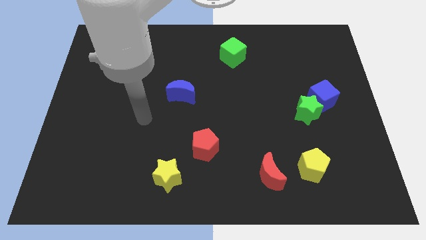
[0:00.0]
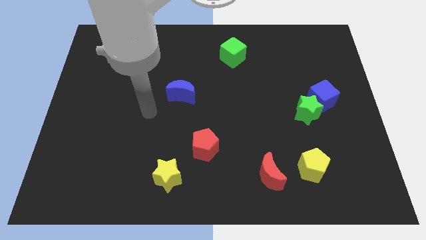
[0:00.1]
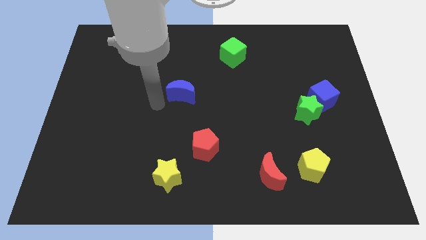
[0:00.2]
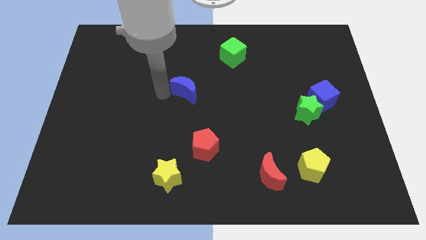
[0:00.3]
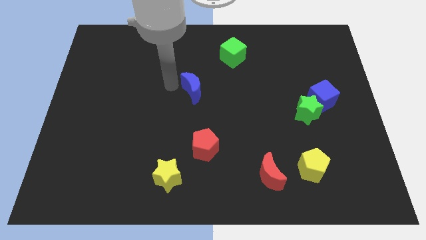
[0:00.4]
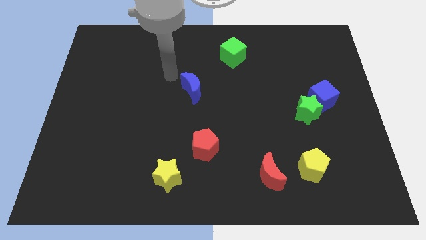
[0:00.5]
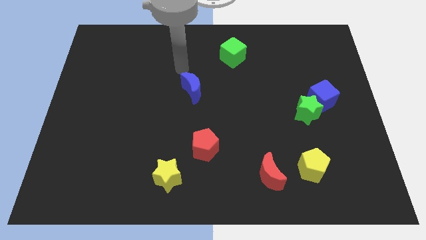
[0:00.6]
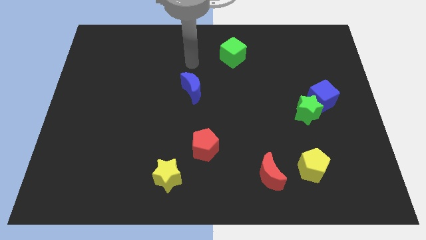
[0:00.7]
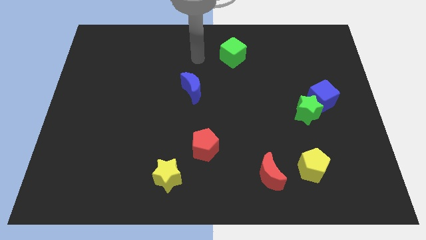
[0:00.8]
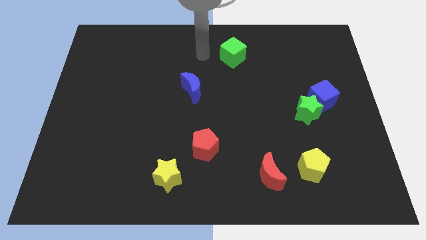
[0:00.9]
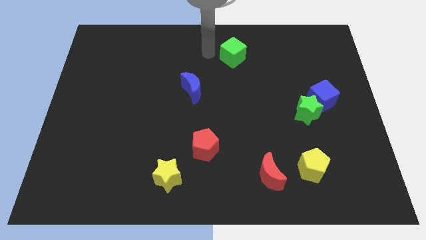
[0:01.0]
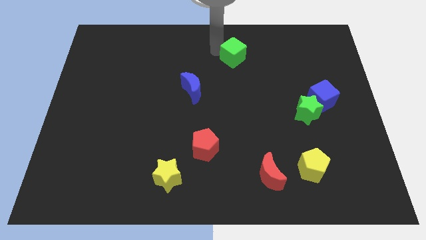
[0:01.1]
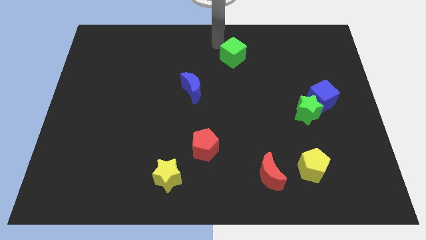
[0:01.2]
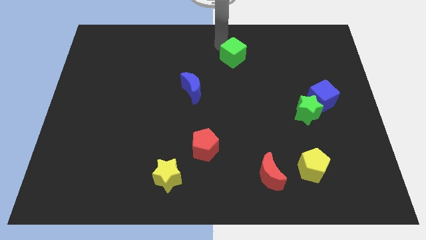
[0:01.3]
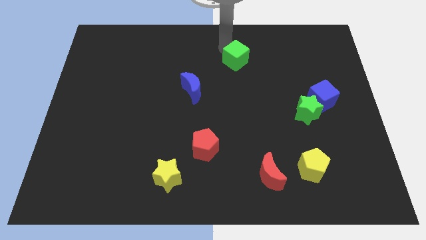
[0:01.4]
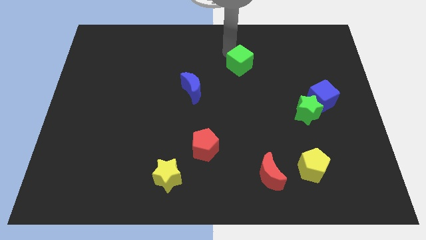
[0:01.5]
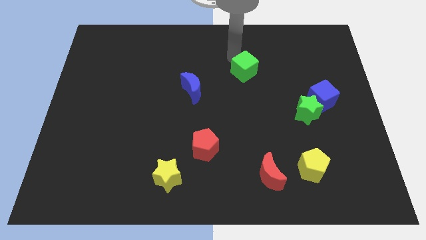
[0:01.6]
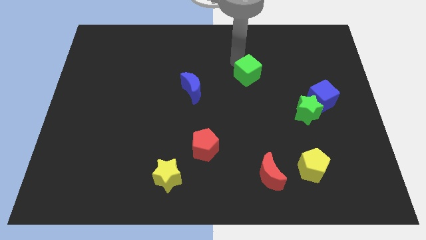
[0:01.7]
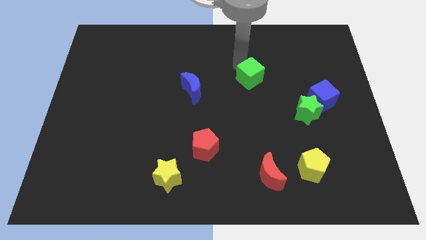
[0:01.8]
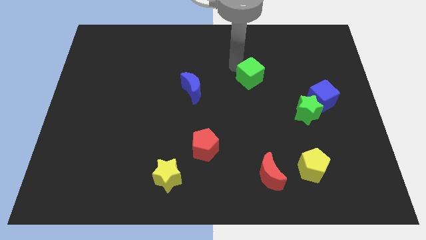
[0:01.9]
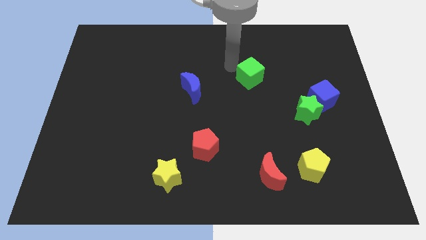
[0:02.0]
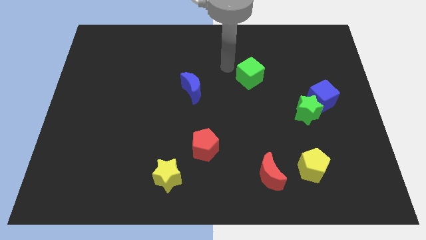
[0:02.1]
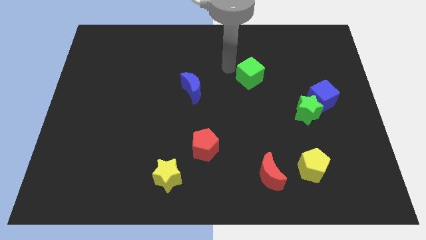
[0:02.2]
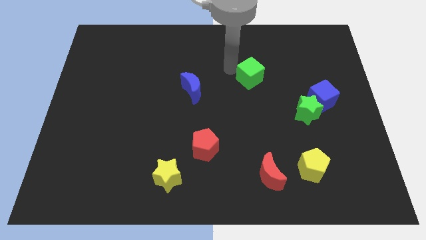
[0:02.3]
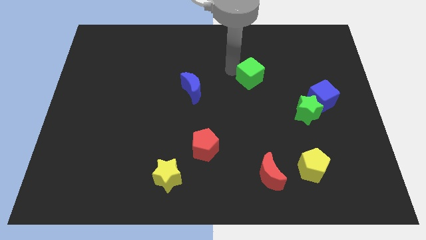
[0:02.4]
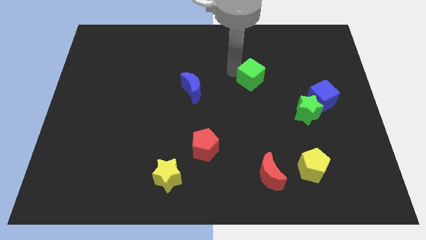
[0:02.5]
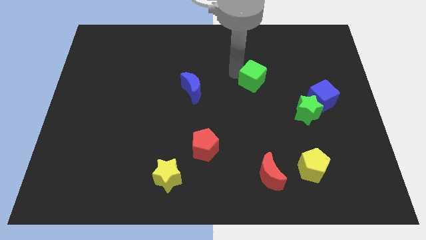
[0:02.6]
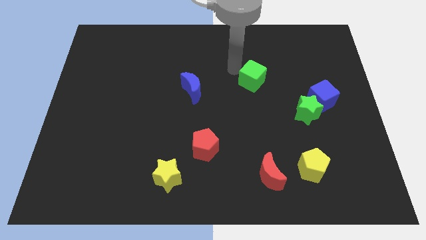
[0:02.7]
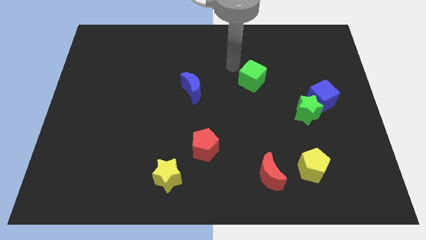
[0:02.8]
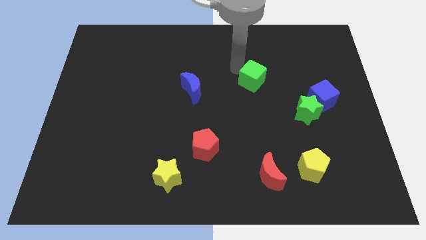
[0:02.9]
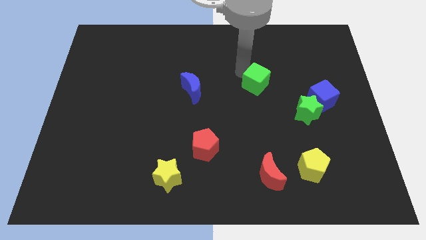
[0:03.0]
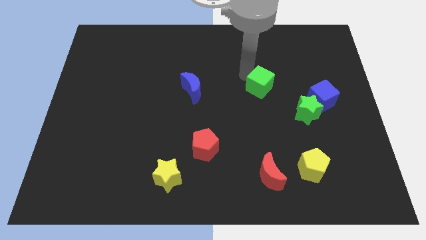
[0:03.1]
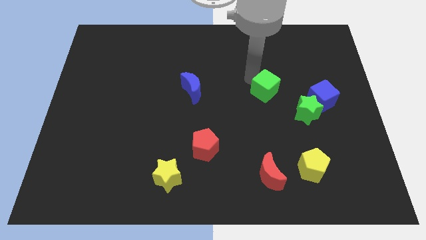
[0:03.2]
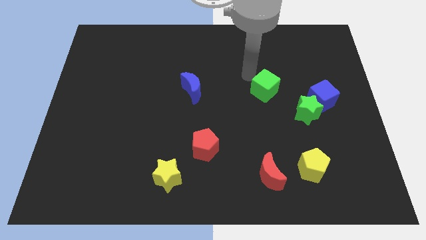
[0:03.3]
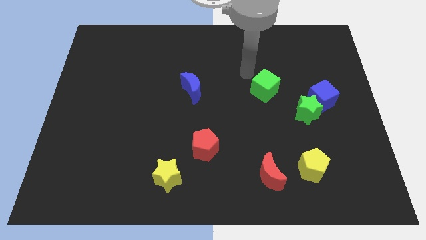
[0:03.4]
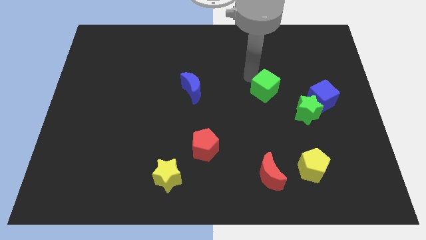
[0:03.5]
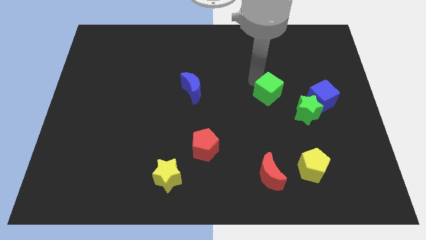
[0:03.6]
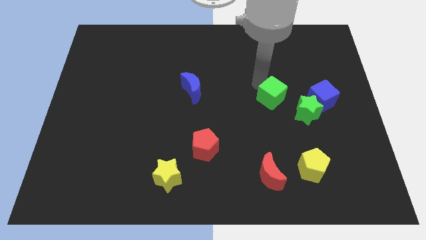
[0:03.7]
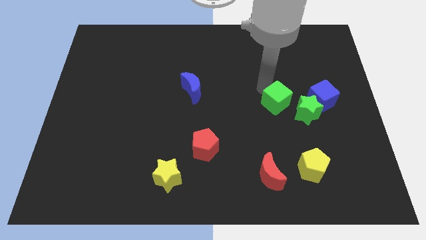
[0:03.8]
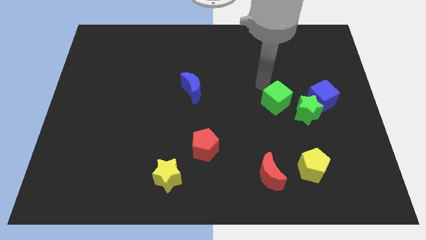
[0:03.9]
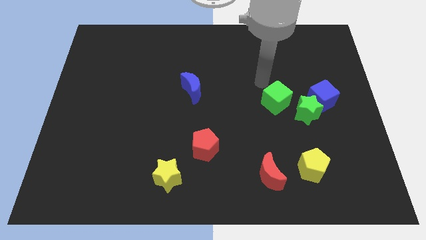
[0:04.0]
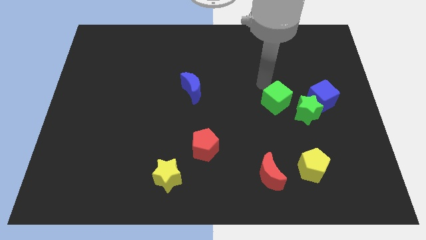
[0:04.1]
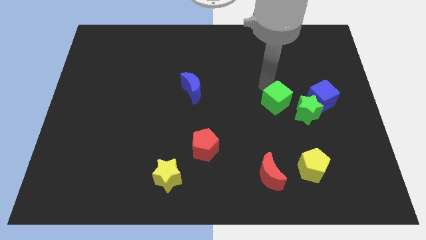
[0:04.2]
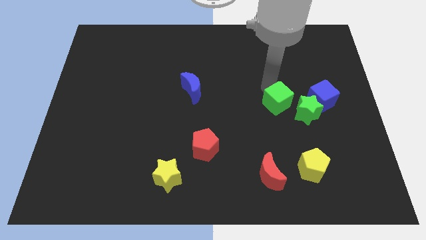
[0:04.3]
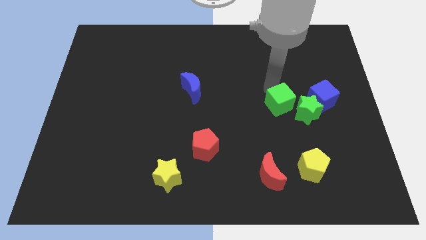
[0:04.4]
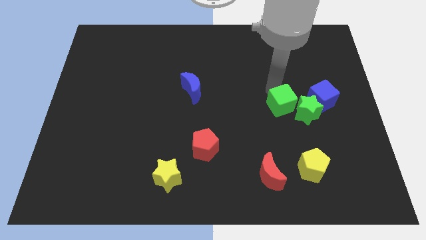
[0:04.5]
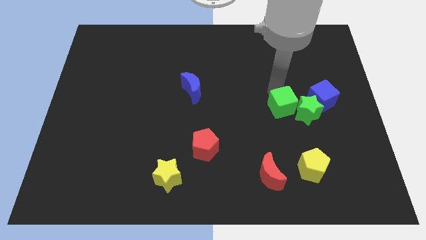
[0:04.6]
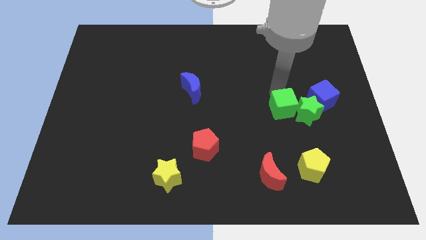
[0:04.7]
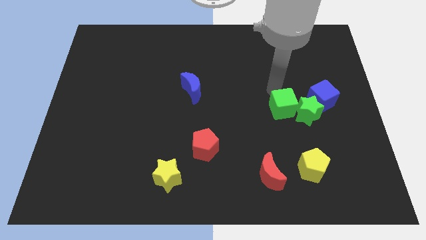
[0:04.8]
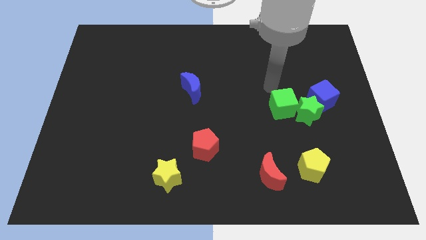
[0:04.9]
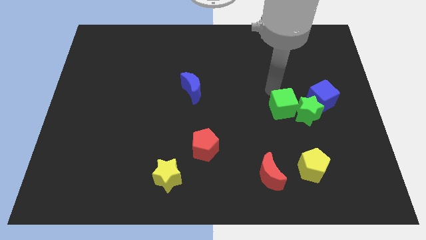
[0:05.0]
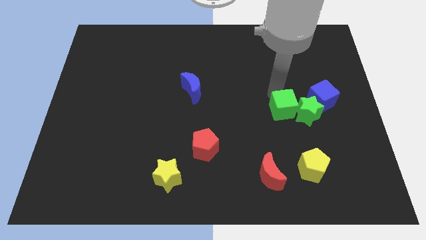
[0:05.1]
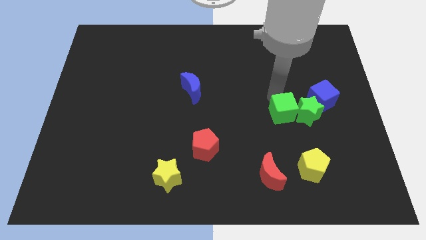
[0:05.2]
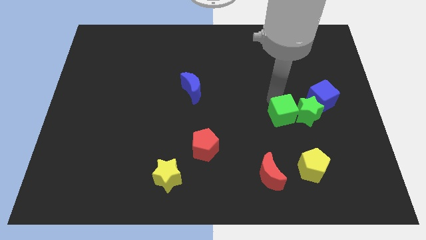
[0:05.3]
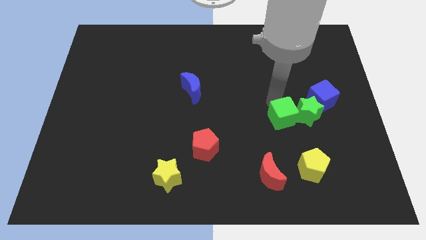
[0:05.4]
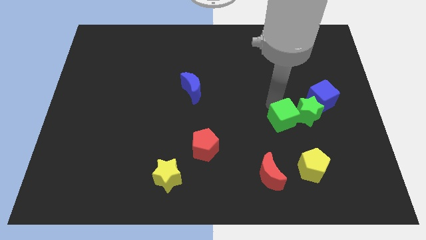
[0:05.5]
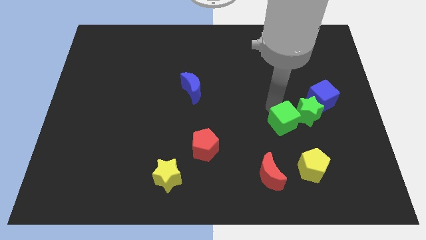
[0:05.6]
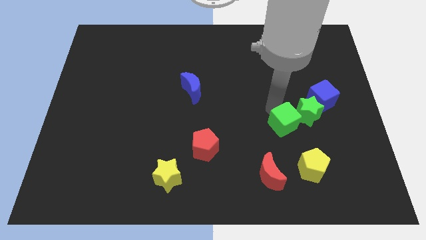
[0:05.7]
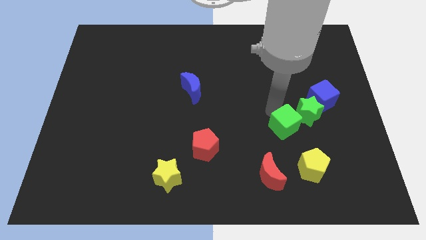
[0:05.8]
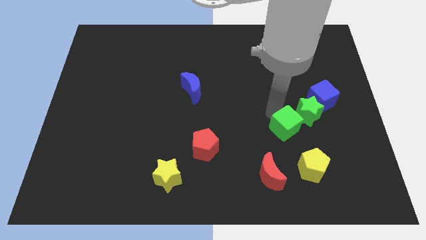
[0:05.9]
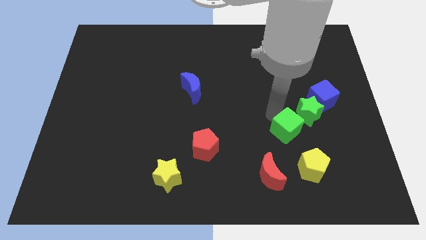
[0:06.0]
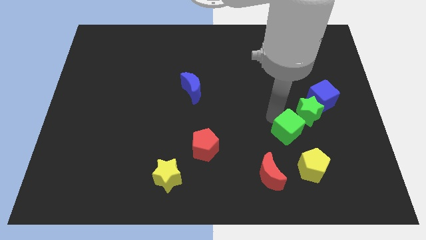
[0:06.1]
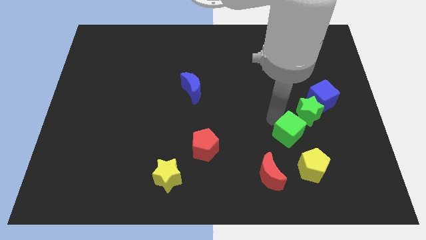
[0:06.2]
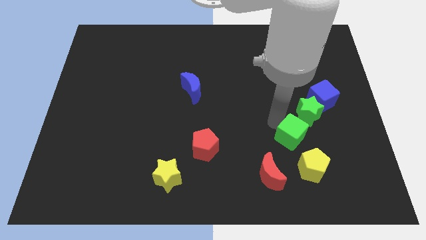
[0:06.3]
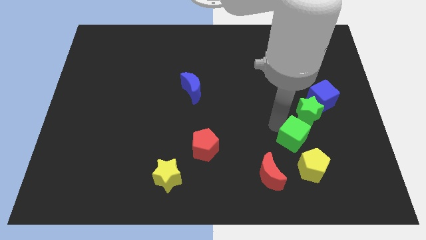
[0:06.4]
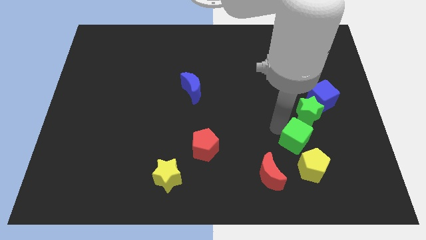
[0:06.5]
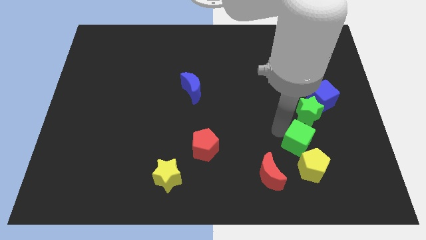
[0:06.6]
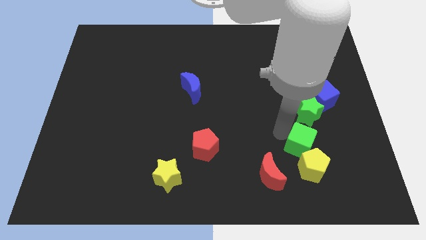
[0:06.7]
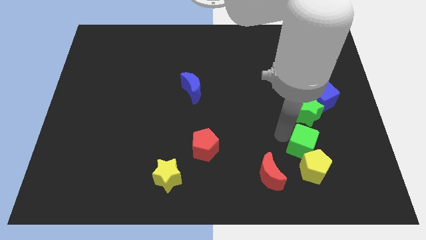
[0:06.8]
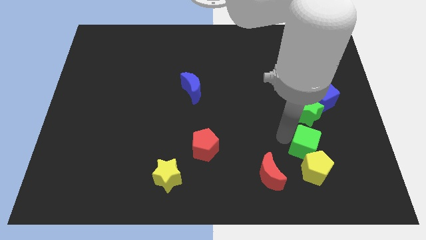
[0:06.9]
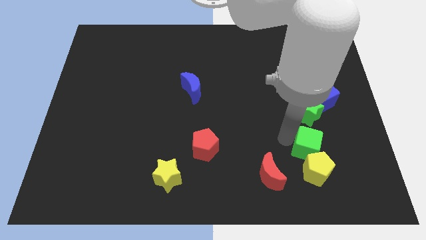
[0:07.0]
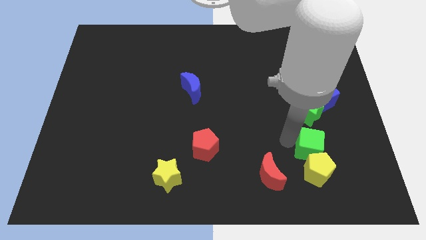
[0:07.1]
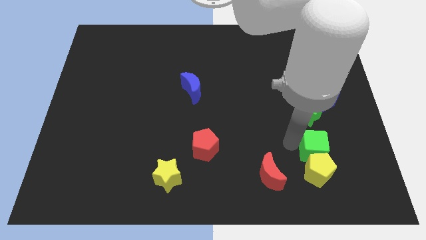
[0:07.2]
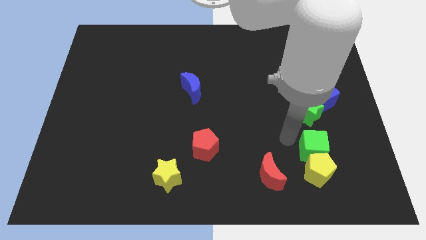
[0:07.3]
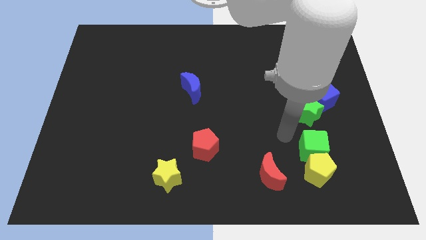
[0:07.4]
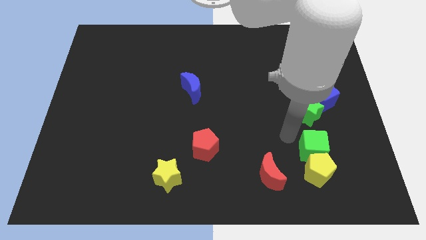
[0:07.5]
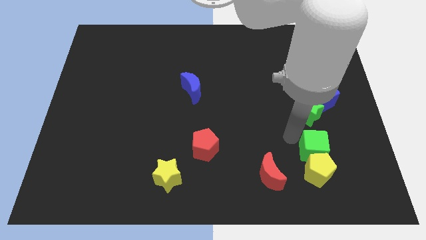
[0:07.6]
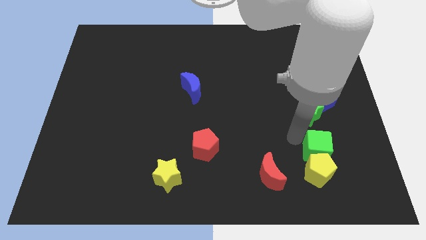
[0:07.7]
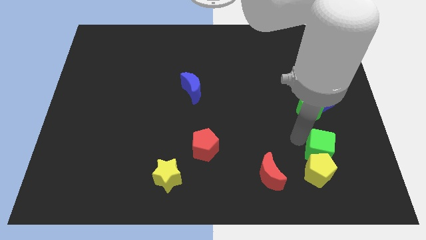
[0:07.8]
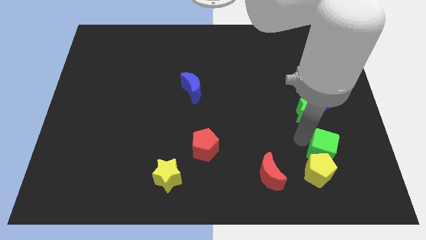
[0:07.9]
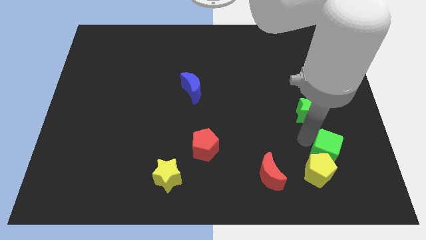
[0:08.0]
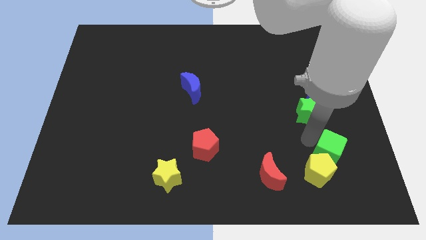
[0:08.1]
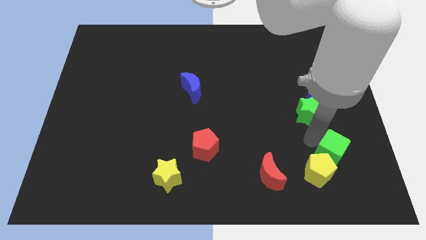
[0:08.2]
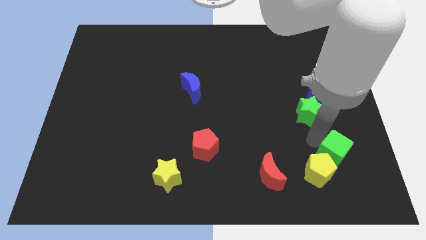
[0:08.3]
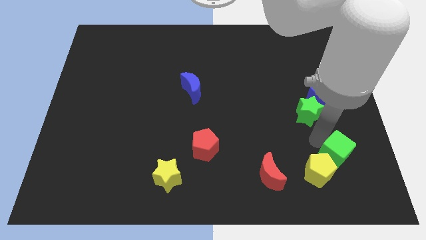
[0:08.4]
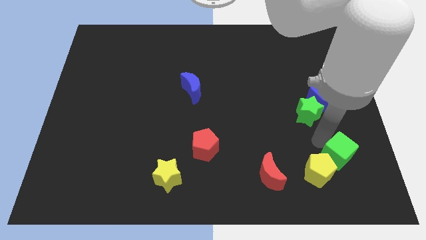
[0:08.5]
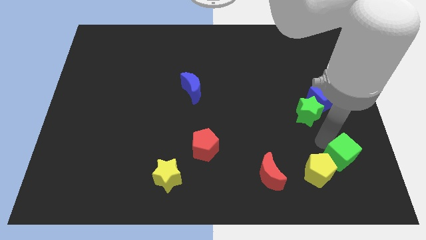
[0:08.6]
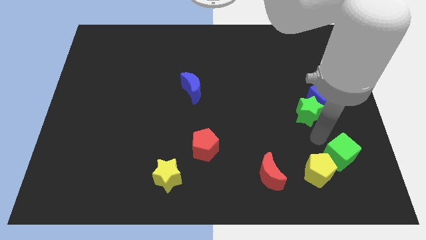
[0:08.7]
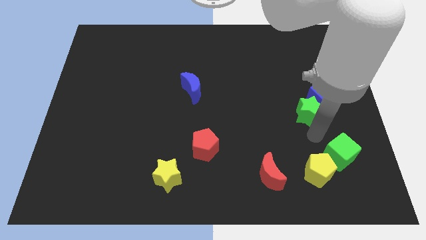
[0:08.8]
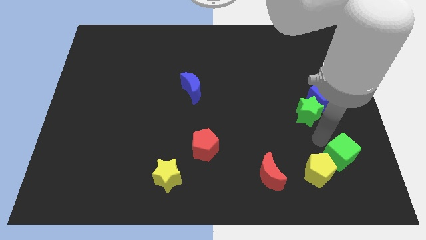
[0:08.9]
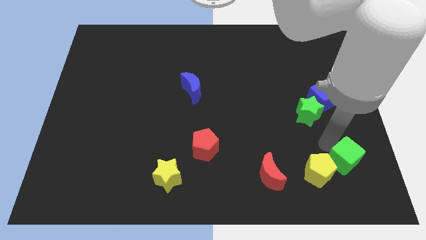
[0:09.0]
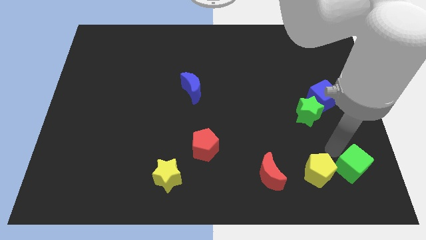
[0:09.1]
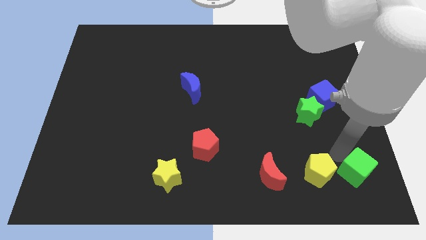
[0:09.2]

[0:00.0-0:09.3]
put the green cube to the bottom right
